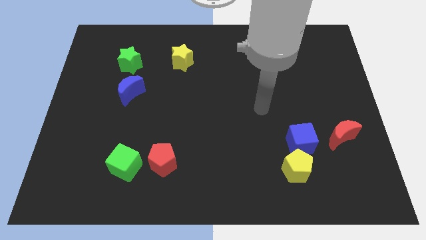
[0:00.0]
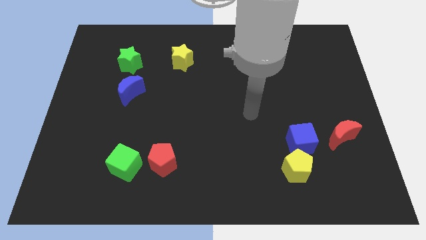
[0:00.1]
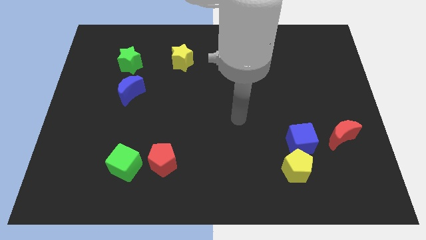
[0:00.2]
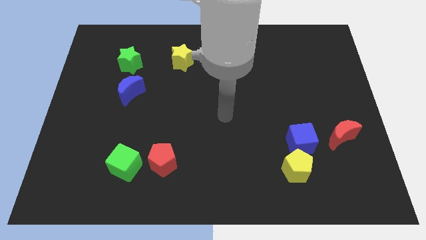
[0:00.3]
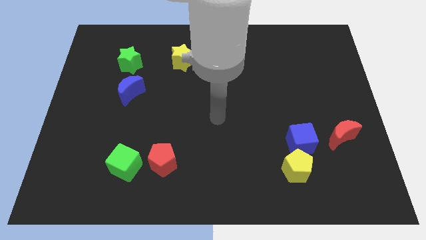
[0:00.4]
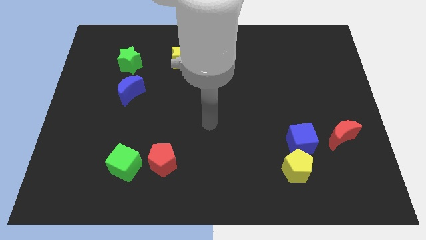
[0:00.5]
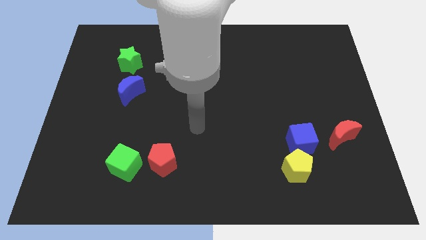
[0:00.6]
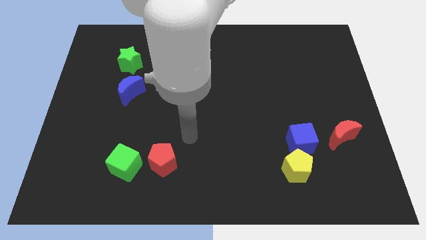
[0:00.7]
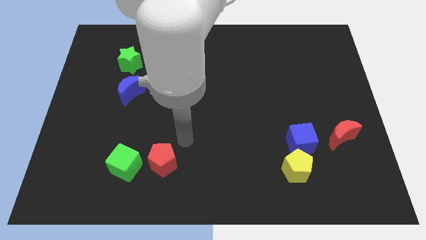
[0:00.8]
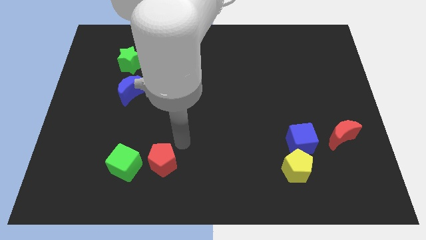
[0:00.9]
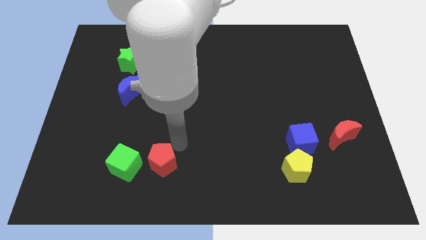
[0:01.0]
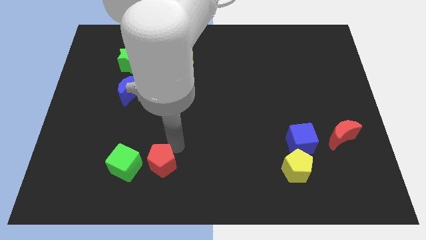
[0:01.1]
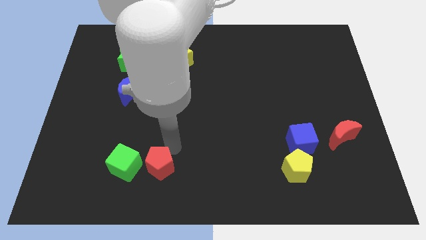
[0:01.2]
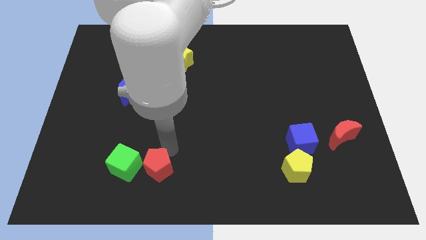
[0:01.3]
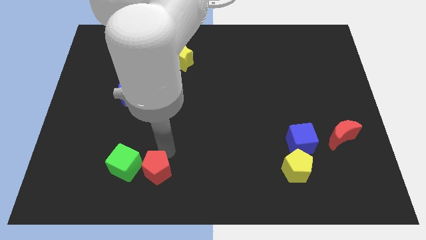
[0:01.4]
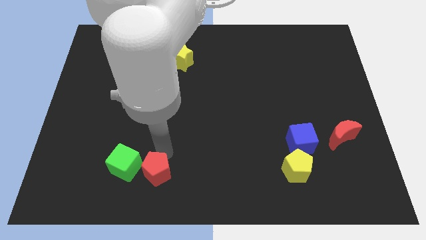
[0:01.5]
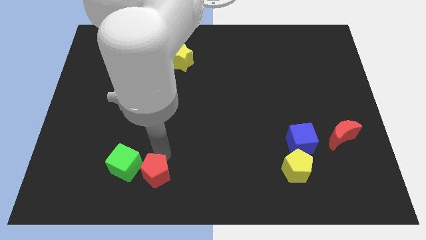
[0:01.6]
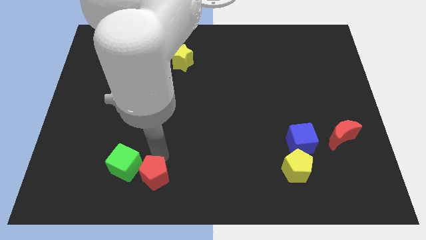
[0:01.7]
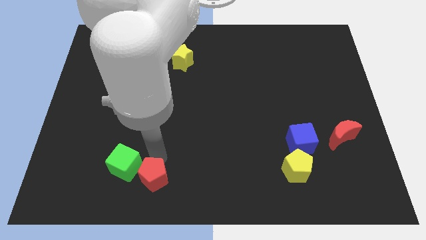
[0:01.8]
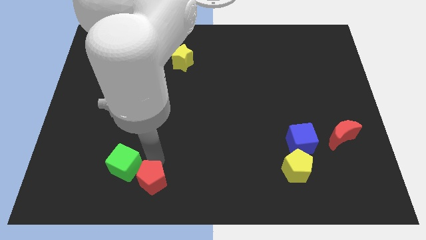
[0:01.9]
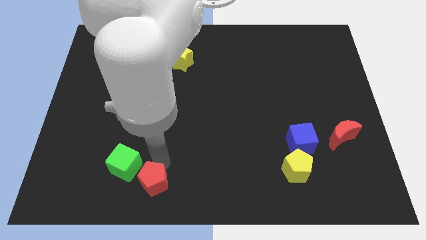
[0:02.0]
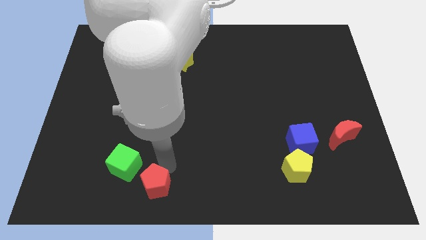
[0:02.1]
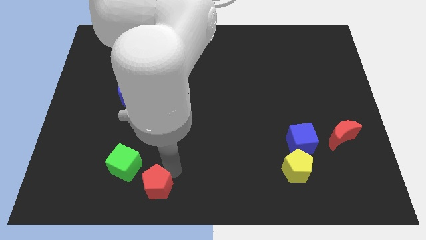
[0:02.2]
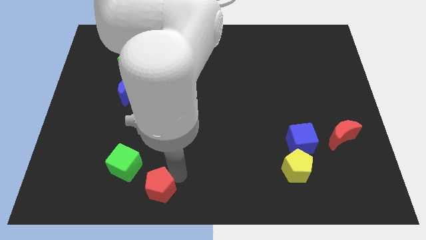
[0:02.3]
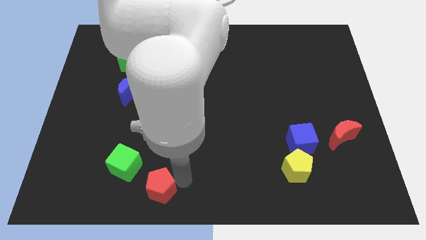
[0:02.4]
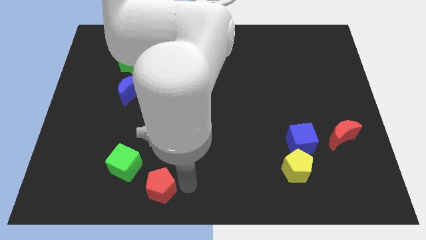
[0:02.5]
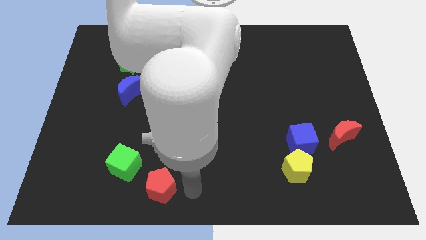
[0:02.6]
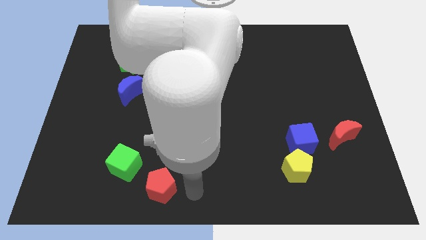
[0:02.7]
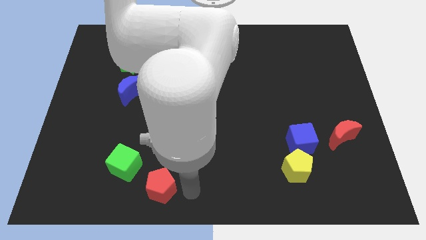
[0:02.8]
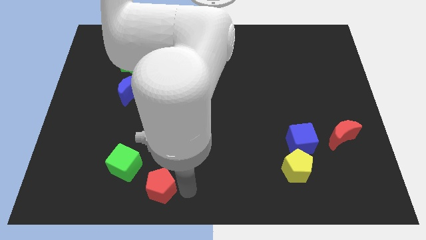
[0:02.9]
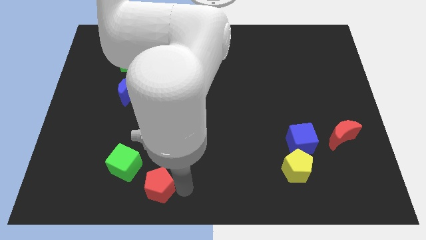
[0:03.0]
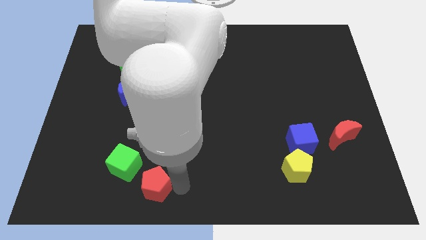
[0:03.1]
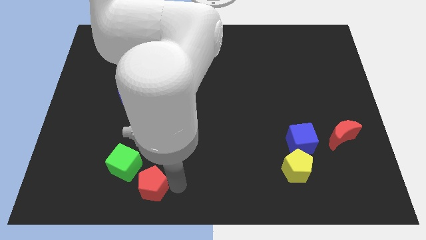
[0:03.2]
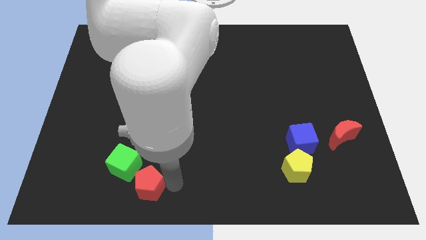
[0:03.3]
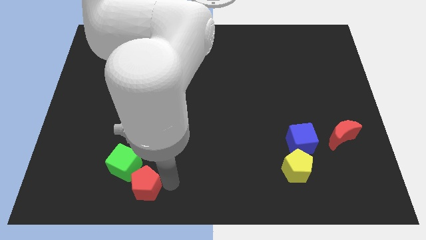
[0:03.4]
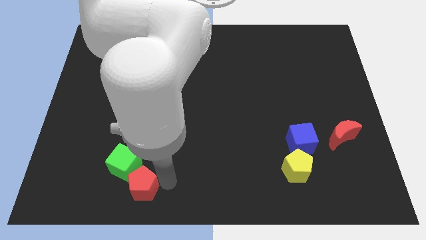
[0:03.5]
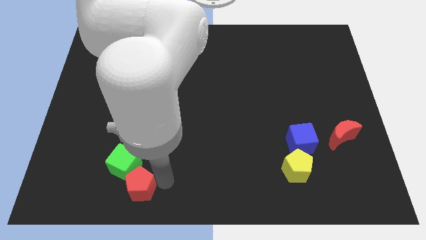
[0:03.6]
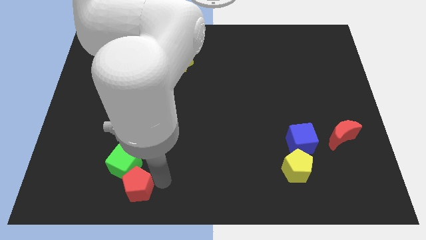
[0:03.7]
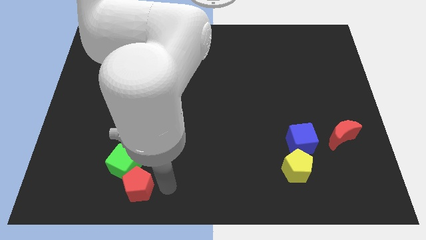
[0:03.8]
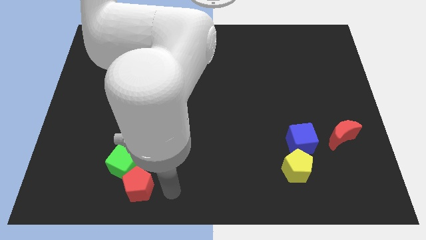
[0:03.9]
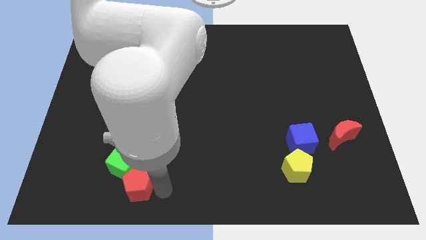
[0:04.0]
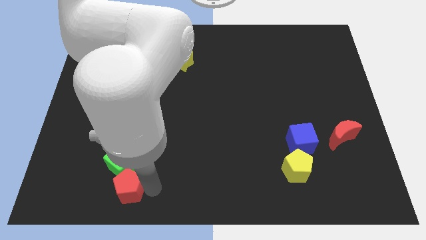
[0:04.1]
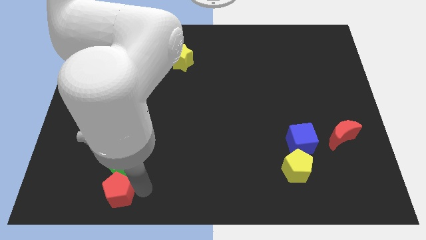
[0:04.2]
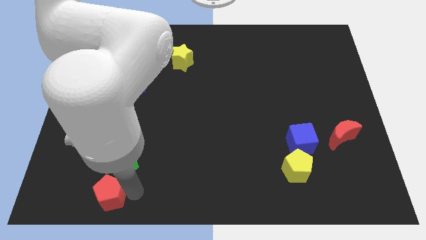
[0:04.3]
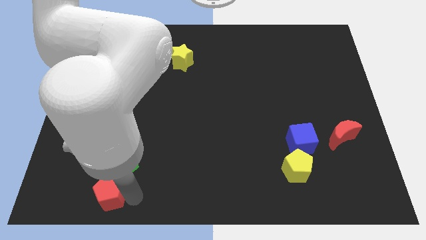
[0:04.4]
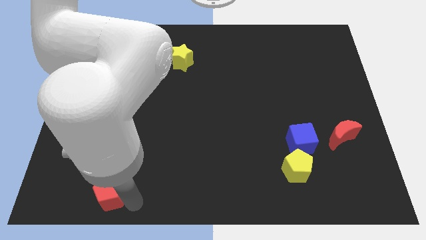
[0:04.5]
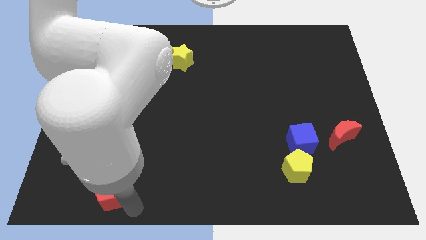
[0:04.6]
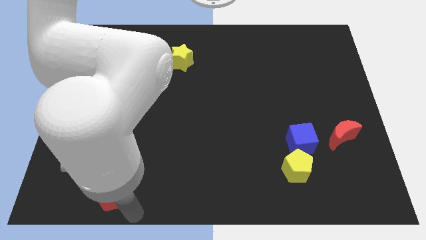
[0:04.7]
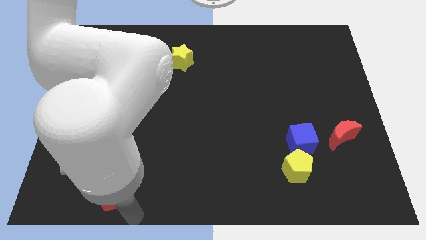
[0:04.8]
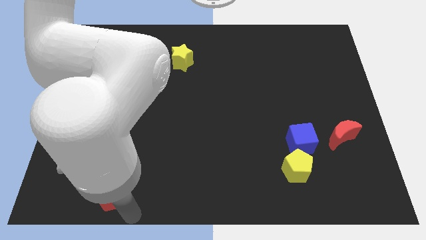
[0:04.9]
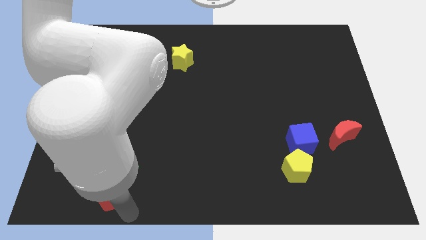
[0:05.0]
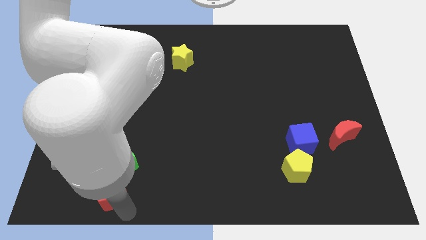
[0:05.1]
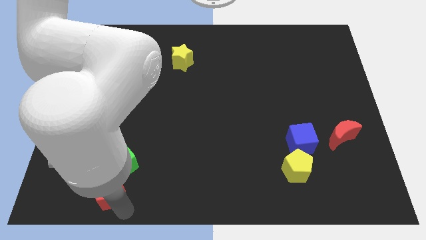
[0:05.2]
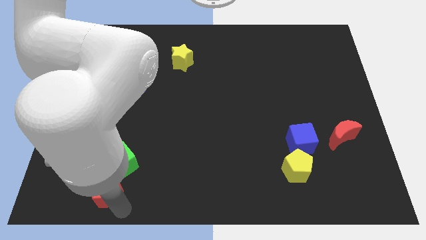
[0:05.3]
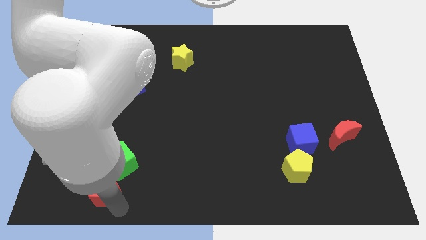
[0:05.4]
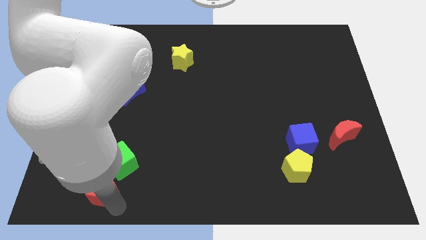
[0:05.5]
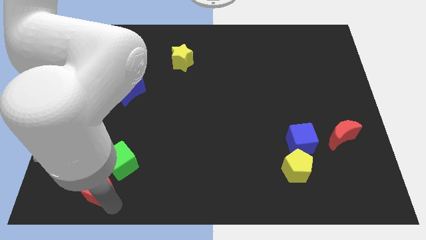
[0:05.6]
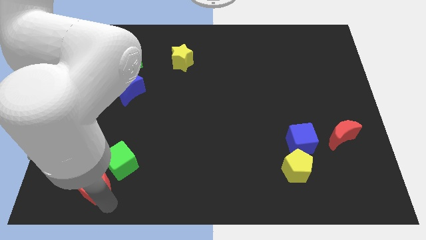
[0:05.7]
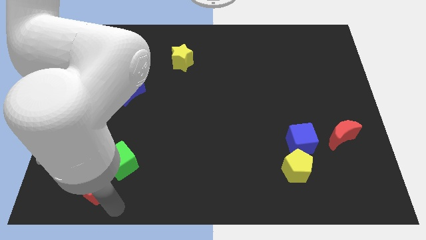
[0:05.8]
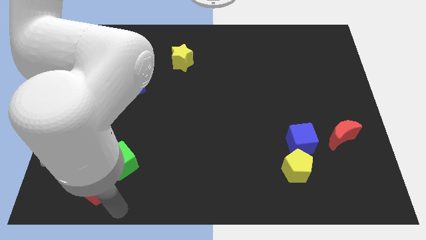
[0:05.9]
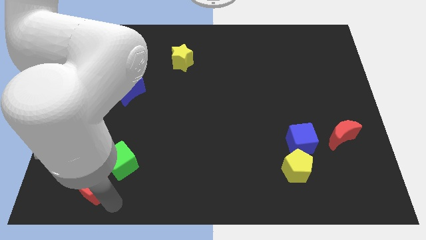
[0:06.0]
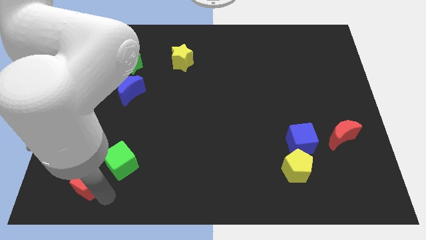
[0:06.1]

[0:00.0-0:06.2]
slide the red pentagon to the left of the green cube
